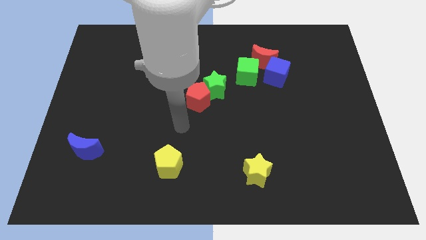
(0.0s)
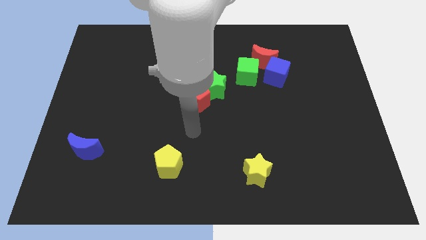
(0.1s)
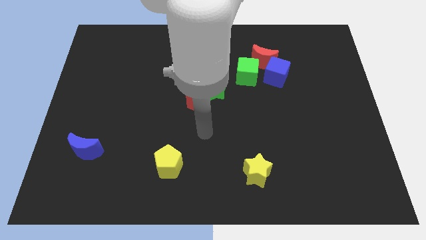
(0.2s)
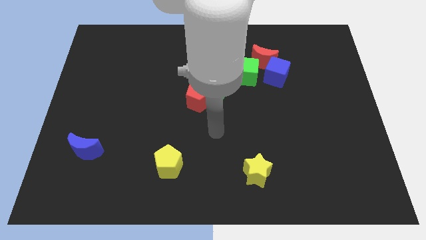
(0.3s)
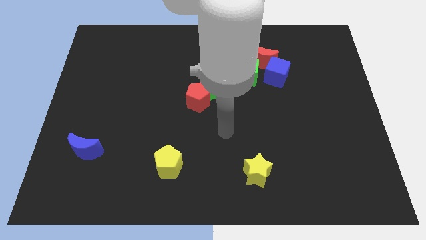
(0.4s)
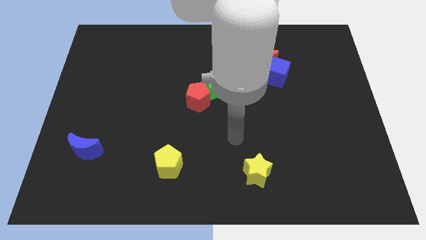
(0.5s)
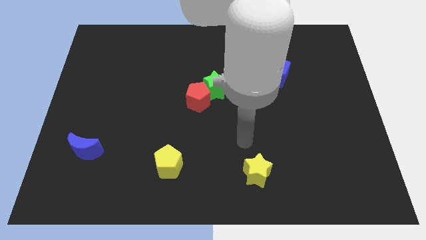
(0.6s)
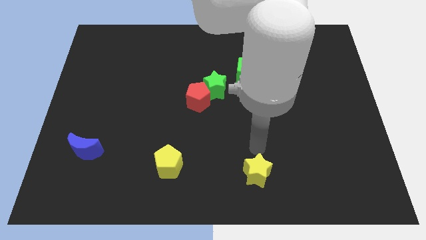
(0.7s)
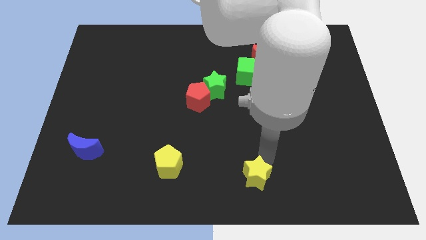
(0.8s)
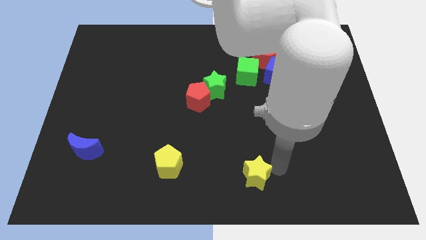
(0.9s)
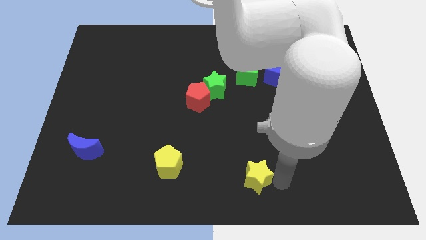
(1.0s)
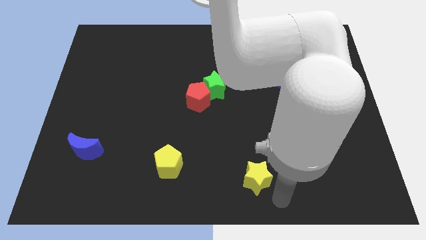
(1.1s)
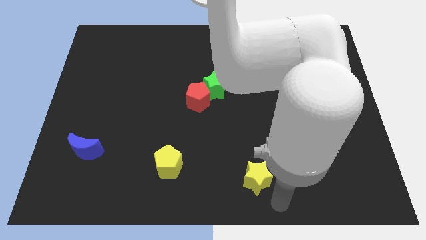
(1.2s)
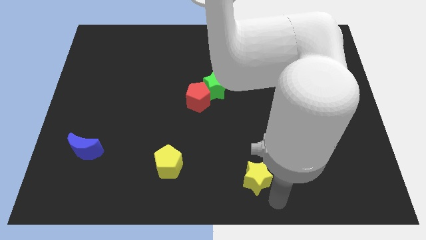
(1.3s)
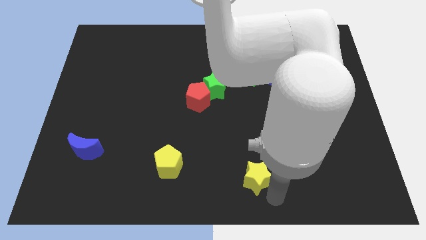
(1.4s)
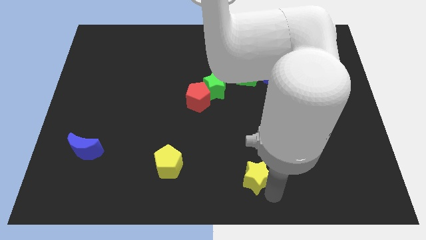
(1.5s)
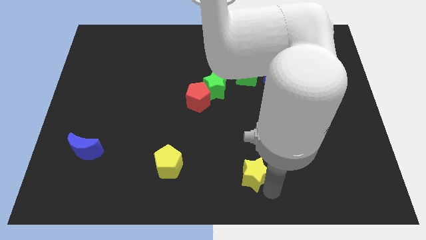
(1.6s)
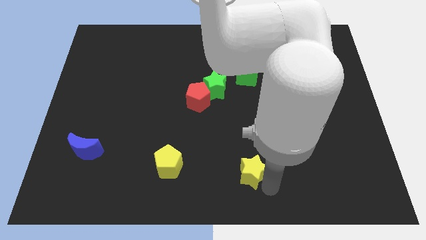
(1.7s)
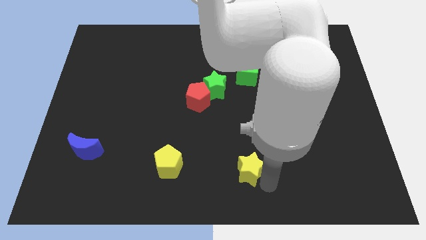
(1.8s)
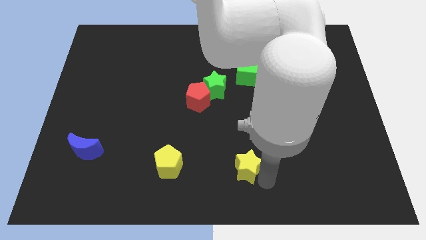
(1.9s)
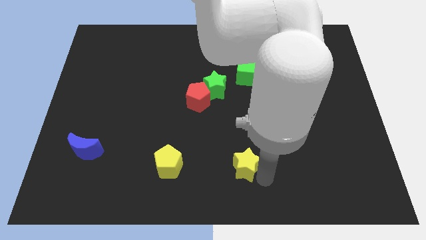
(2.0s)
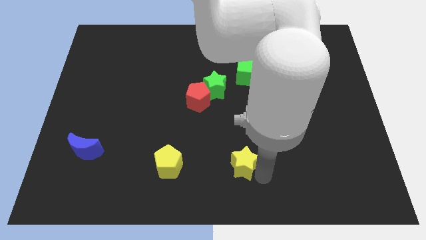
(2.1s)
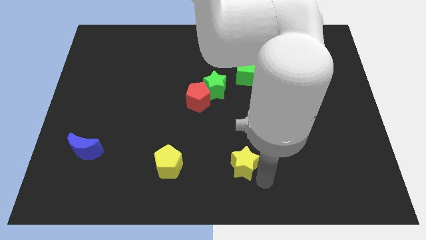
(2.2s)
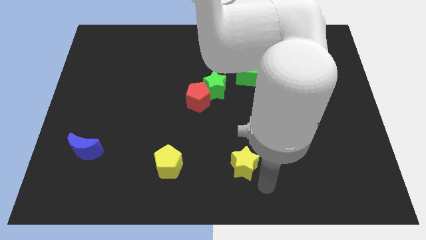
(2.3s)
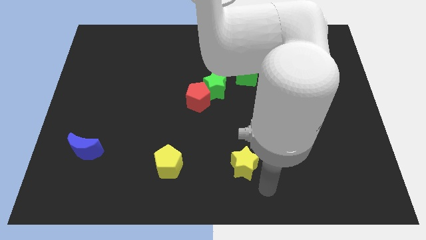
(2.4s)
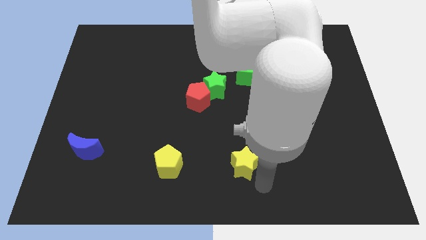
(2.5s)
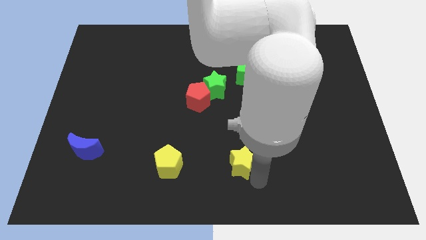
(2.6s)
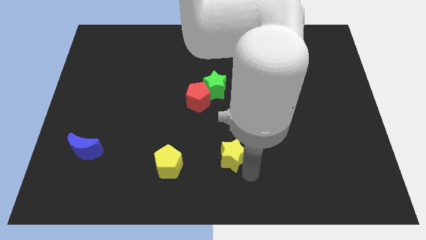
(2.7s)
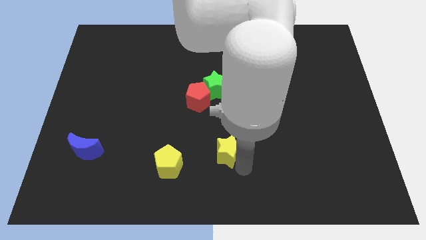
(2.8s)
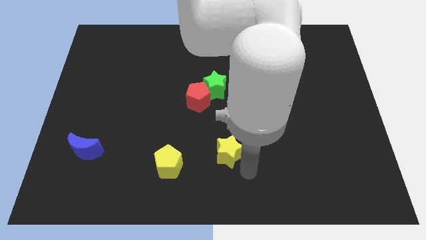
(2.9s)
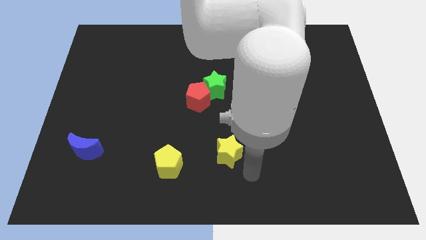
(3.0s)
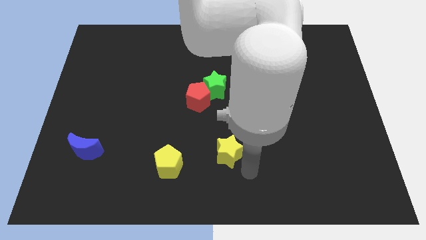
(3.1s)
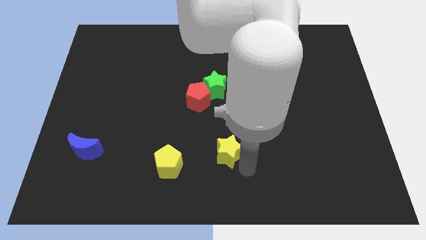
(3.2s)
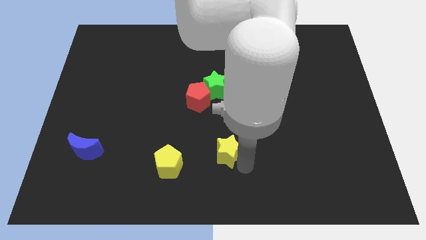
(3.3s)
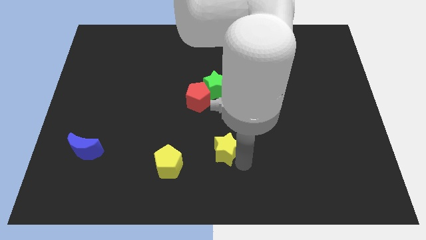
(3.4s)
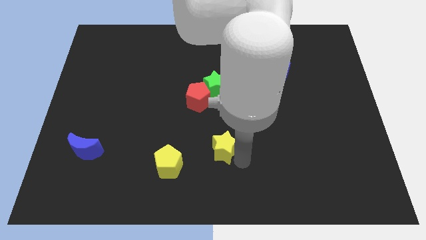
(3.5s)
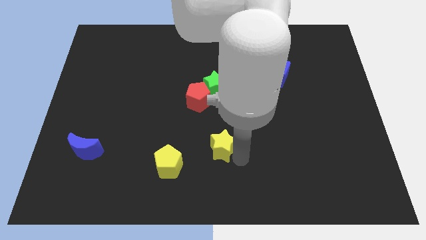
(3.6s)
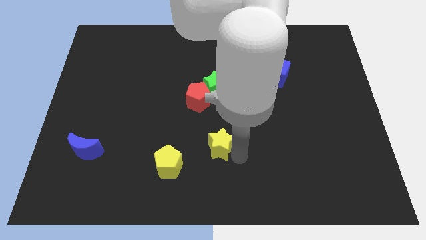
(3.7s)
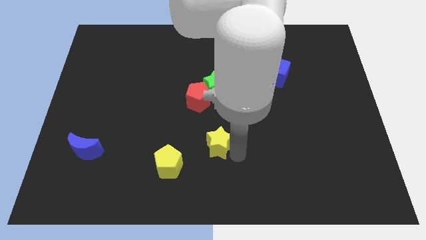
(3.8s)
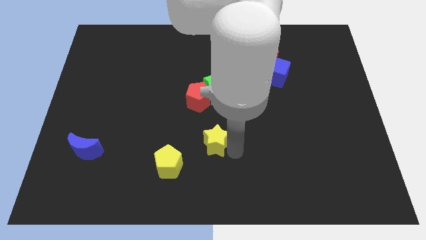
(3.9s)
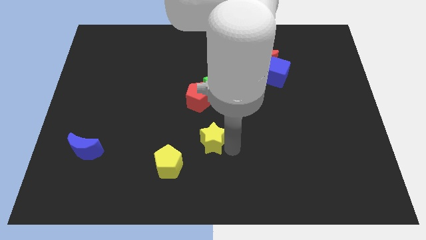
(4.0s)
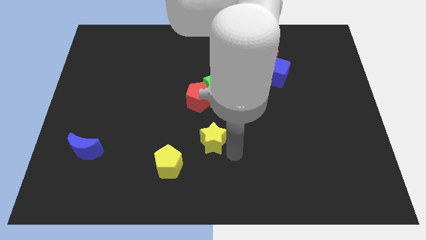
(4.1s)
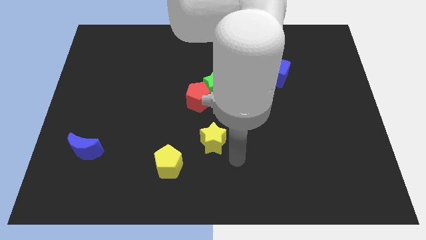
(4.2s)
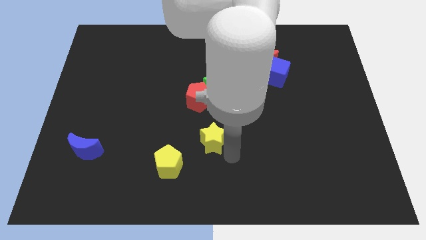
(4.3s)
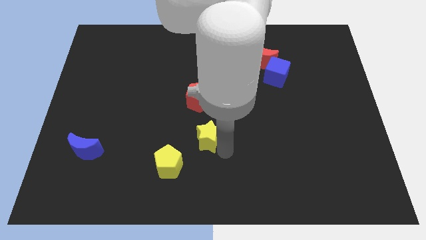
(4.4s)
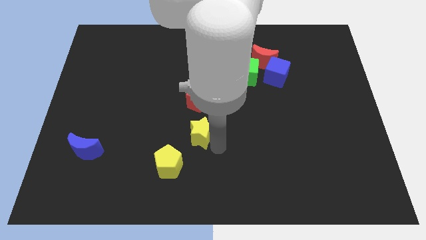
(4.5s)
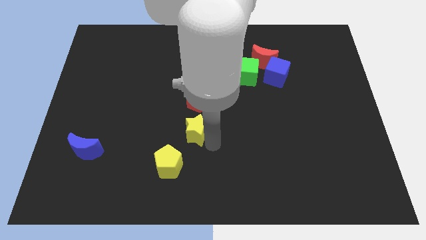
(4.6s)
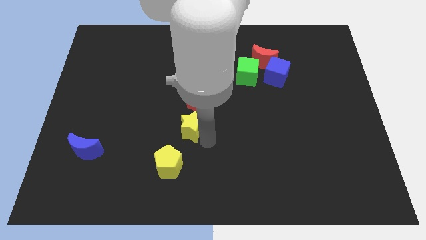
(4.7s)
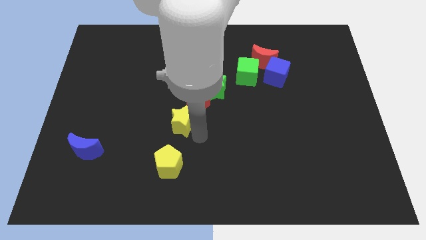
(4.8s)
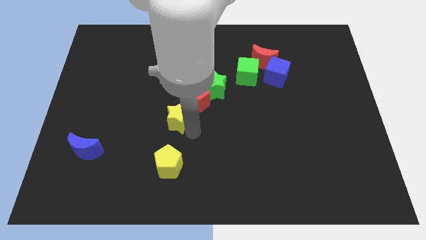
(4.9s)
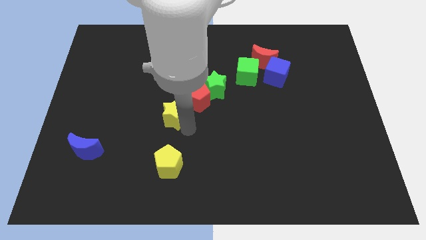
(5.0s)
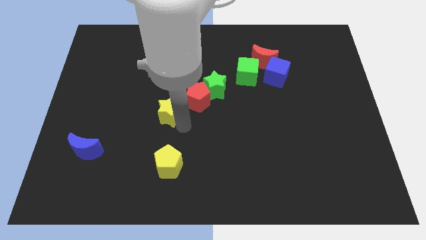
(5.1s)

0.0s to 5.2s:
put the yellow star left of the red pentagon

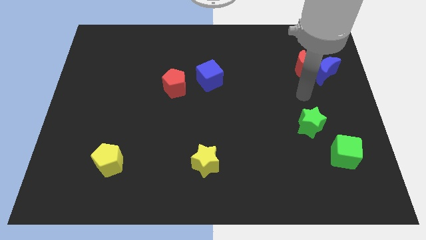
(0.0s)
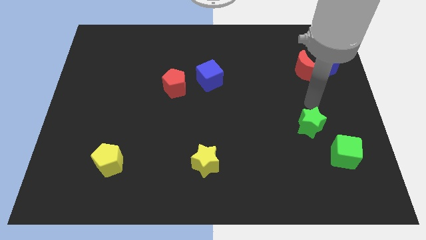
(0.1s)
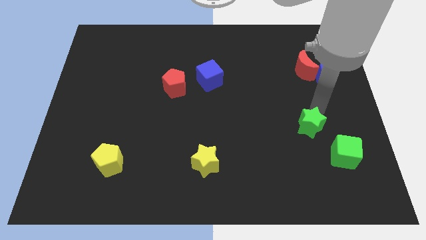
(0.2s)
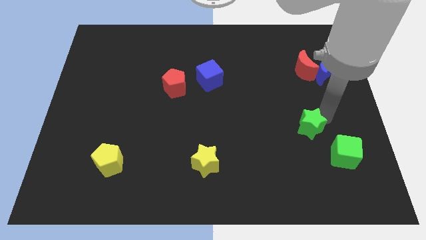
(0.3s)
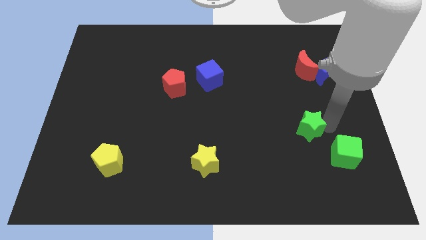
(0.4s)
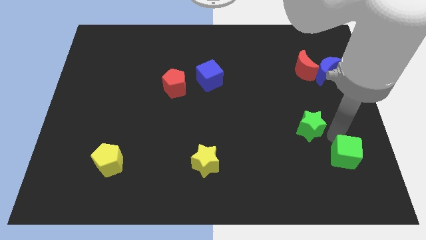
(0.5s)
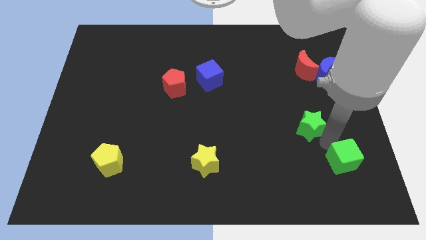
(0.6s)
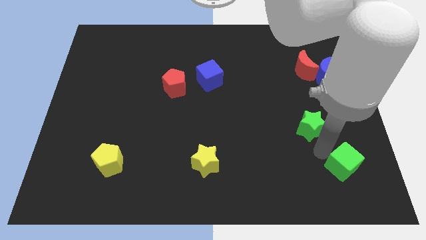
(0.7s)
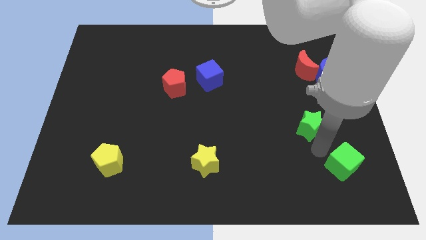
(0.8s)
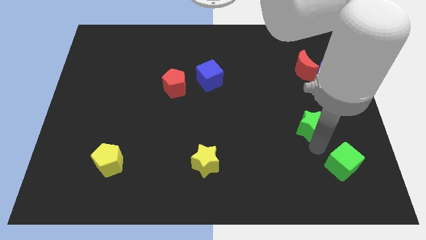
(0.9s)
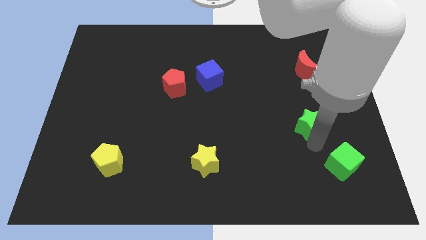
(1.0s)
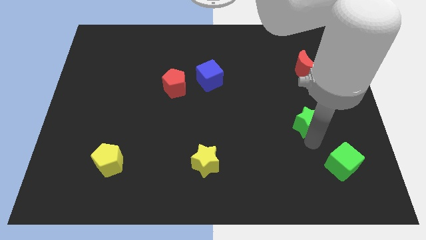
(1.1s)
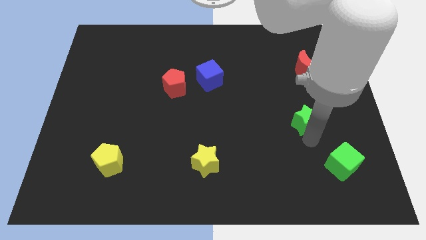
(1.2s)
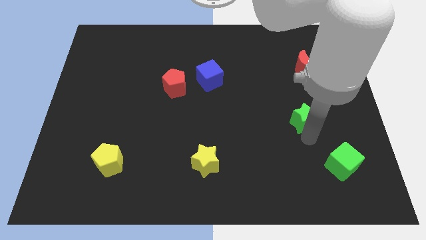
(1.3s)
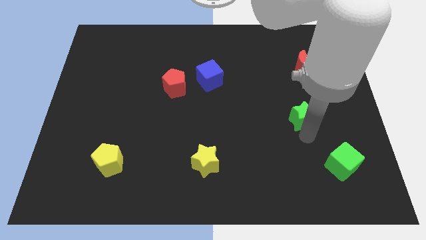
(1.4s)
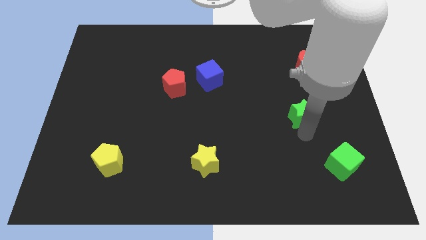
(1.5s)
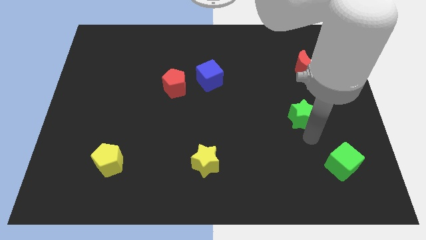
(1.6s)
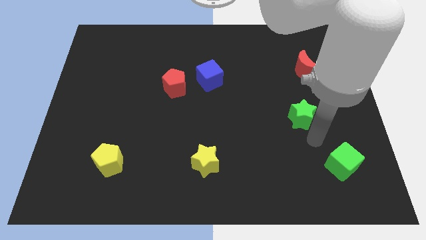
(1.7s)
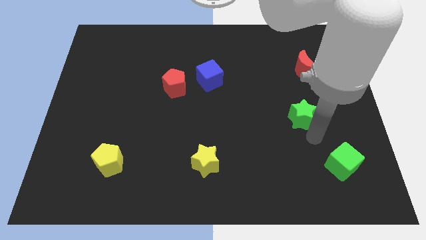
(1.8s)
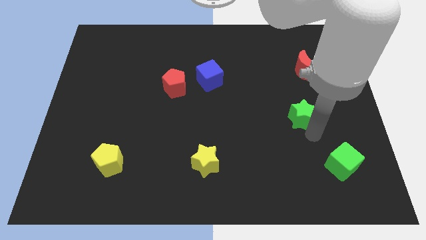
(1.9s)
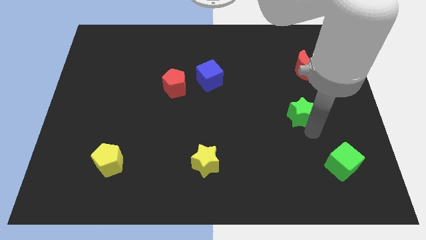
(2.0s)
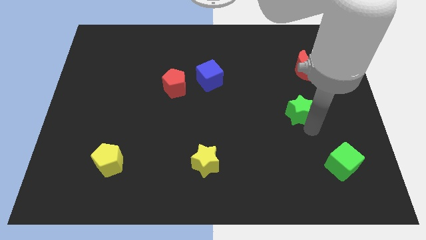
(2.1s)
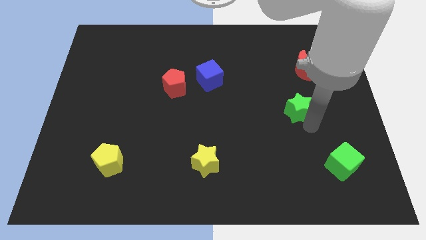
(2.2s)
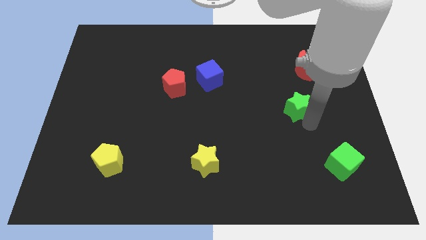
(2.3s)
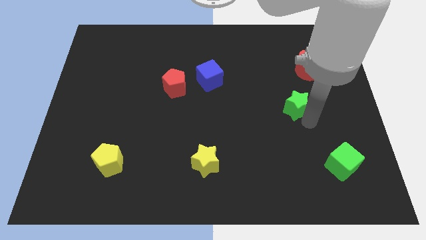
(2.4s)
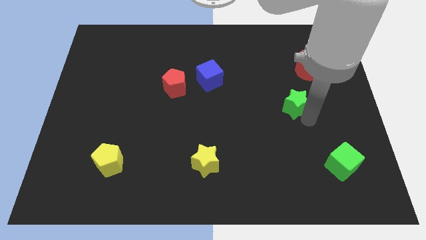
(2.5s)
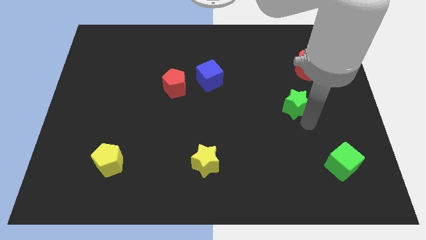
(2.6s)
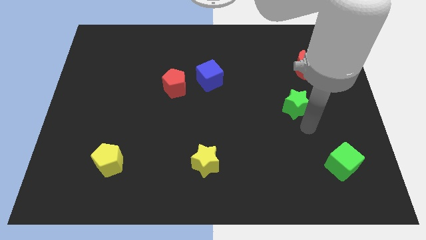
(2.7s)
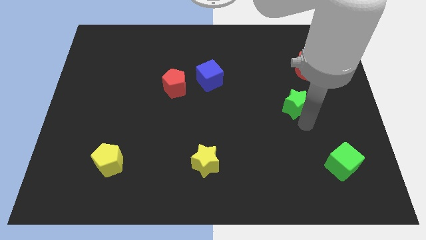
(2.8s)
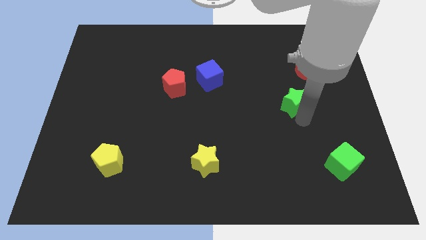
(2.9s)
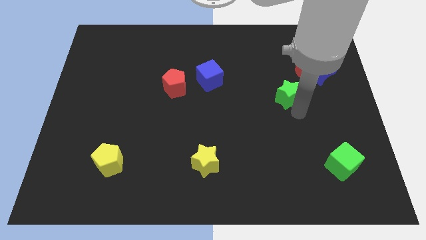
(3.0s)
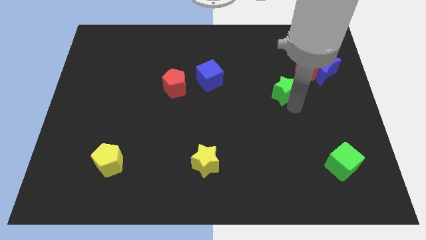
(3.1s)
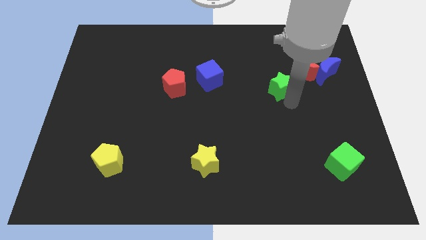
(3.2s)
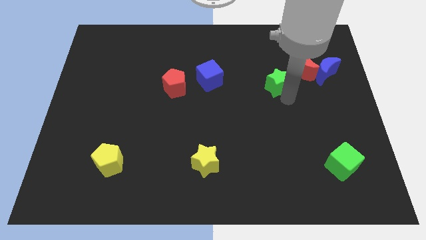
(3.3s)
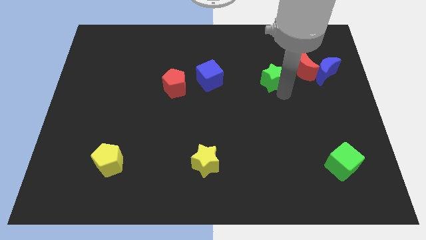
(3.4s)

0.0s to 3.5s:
slide the green star left of the red moon
